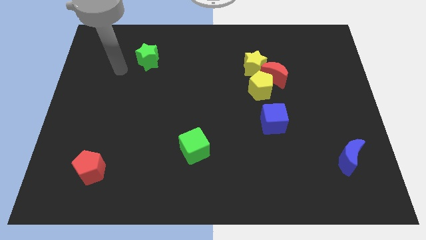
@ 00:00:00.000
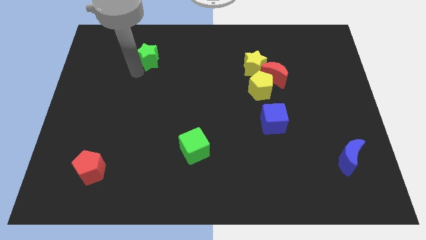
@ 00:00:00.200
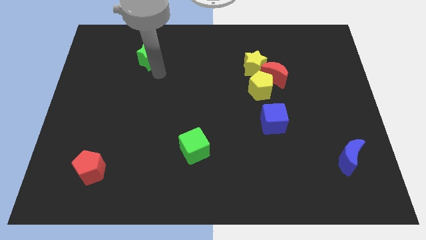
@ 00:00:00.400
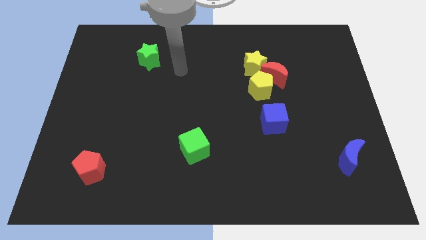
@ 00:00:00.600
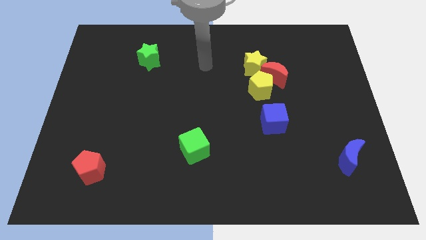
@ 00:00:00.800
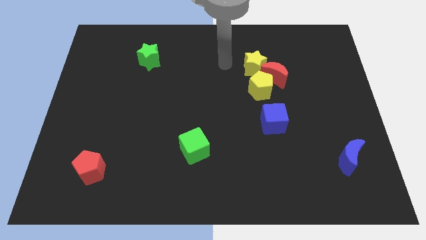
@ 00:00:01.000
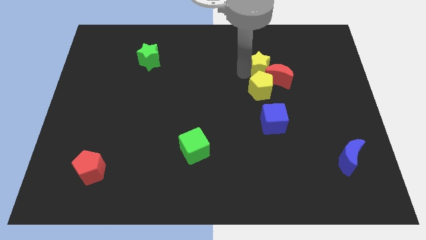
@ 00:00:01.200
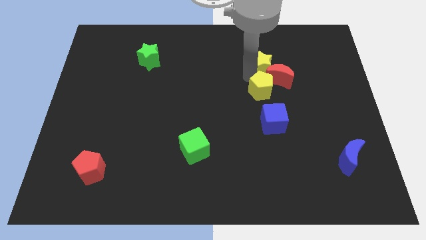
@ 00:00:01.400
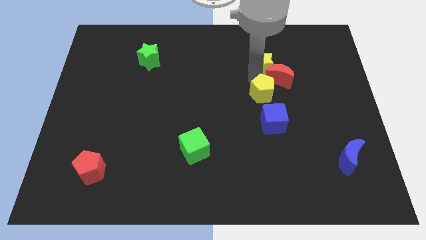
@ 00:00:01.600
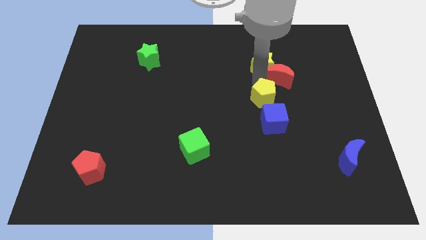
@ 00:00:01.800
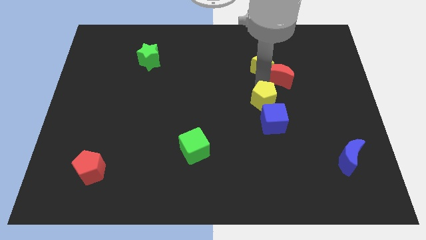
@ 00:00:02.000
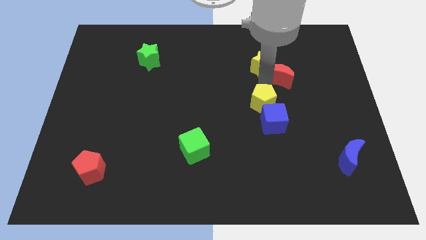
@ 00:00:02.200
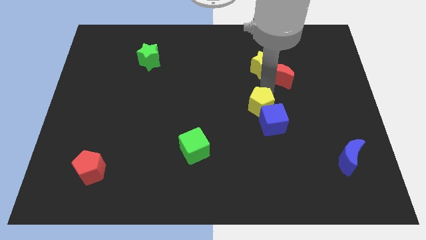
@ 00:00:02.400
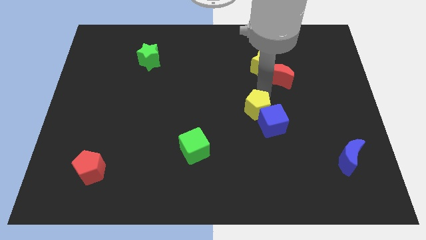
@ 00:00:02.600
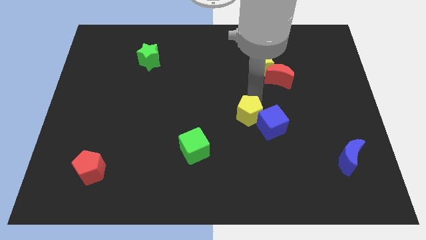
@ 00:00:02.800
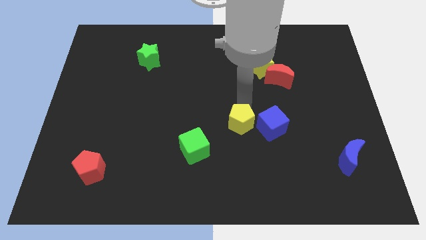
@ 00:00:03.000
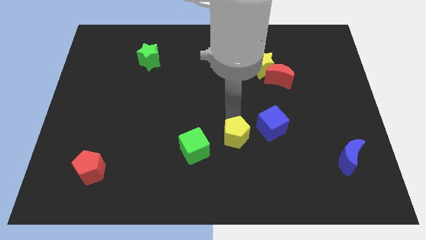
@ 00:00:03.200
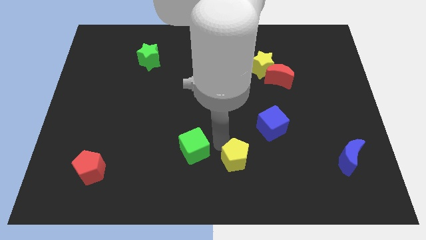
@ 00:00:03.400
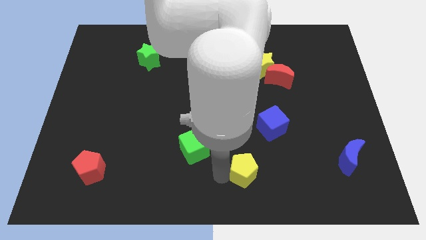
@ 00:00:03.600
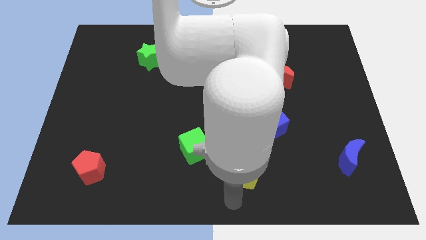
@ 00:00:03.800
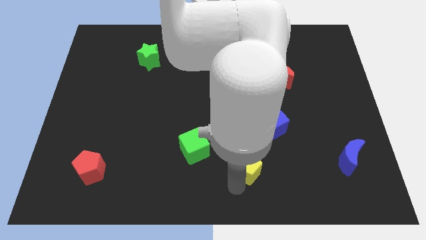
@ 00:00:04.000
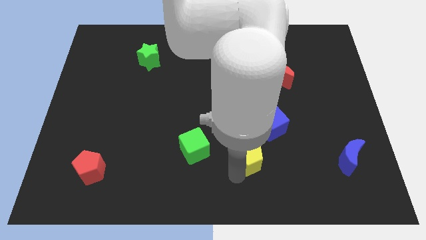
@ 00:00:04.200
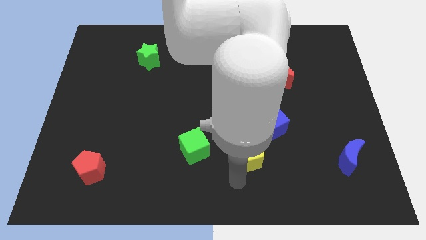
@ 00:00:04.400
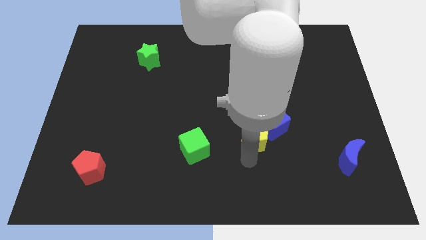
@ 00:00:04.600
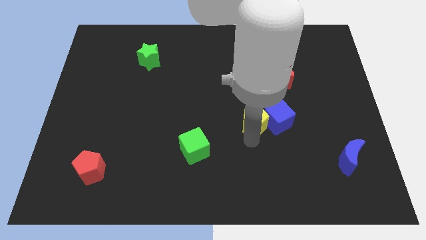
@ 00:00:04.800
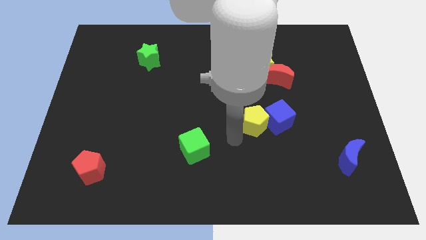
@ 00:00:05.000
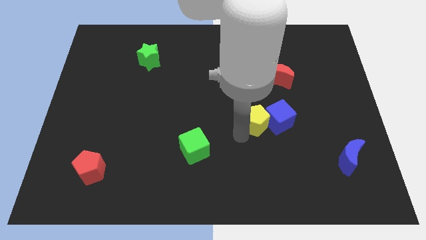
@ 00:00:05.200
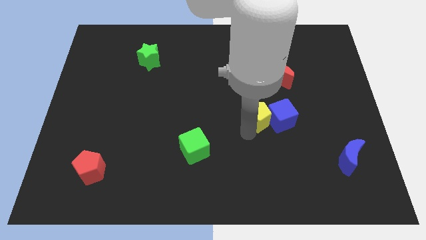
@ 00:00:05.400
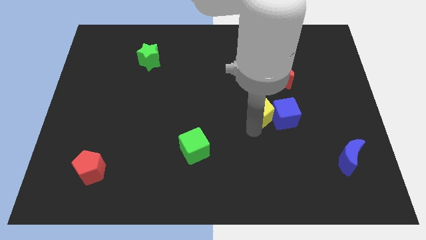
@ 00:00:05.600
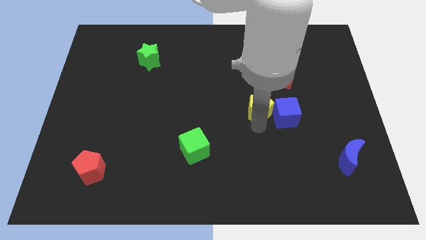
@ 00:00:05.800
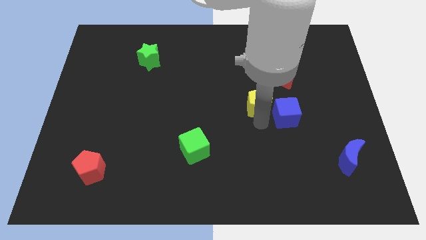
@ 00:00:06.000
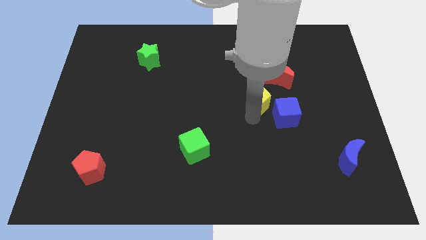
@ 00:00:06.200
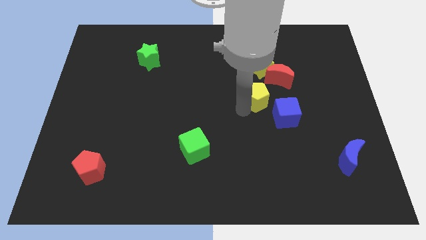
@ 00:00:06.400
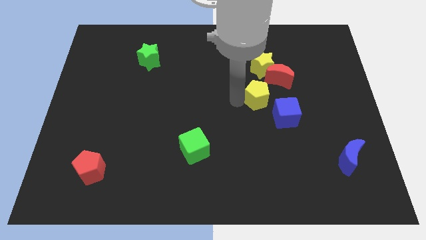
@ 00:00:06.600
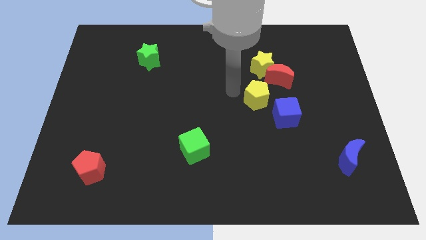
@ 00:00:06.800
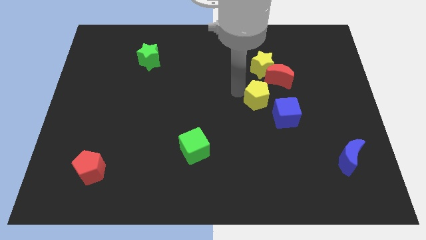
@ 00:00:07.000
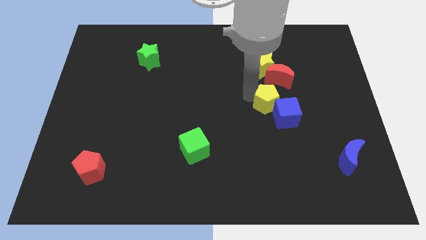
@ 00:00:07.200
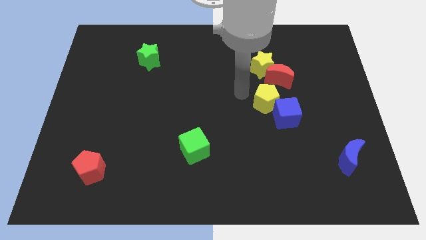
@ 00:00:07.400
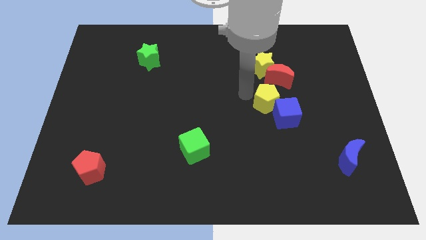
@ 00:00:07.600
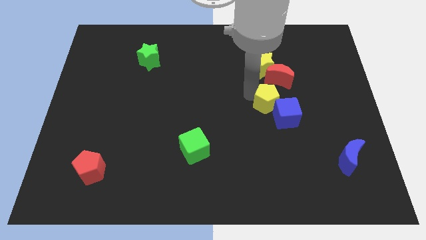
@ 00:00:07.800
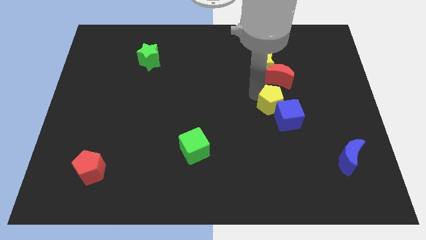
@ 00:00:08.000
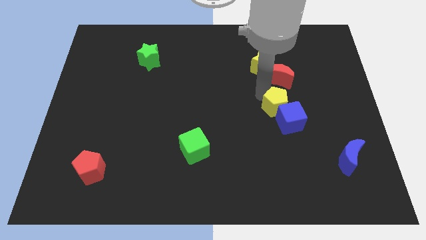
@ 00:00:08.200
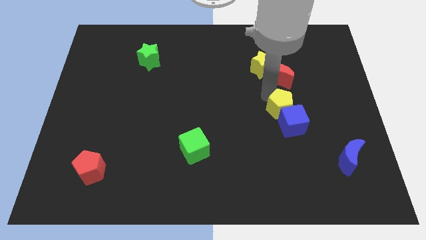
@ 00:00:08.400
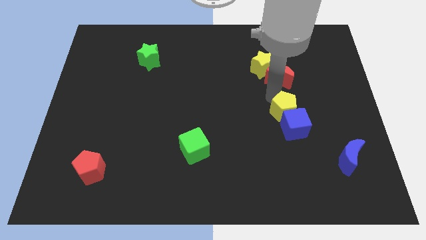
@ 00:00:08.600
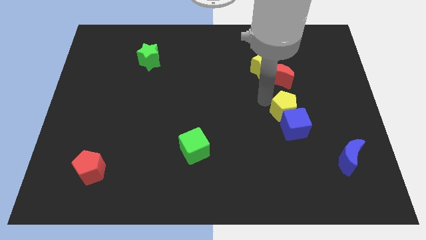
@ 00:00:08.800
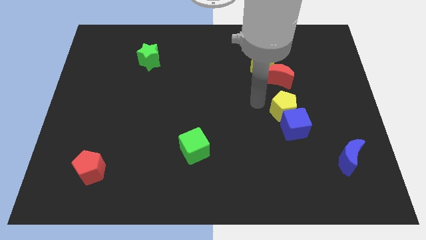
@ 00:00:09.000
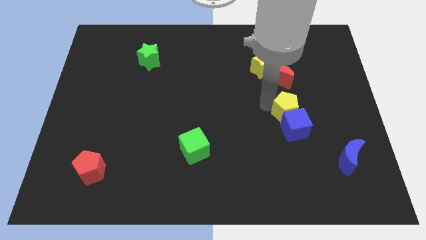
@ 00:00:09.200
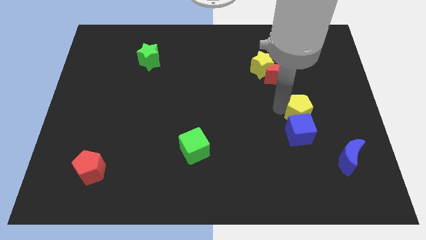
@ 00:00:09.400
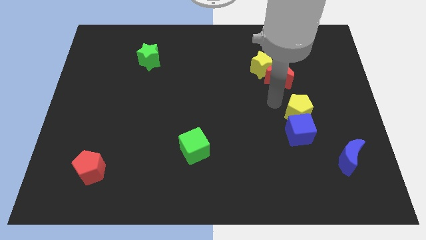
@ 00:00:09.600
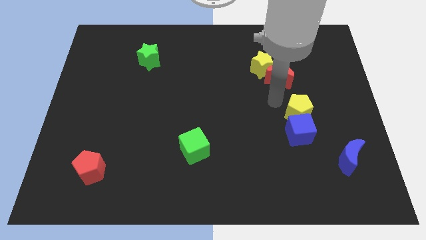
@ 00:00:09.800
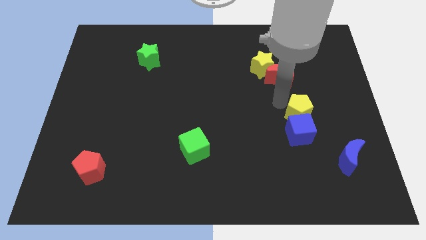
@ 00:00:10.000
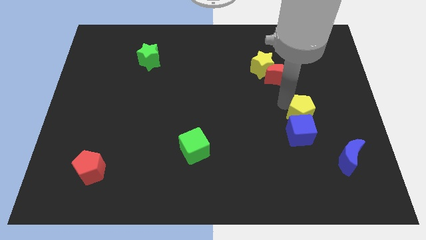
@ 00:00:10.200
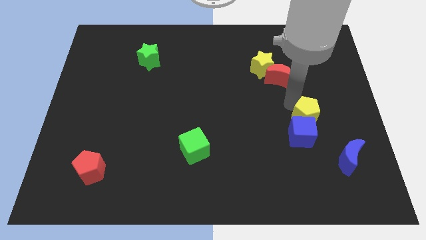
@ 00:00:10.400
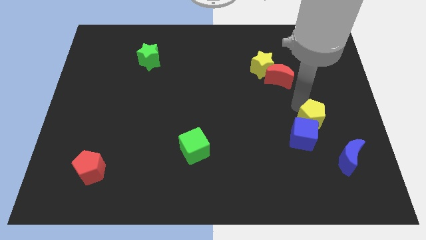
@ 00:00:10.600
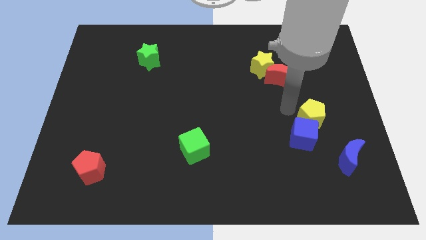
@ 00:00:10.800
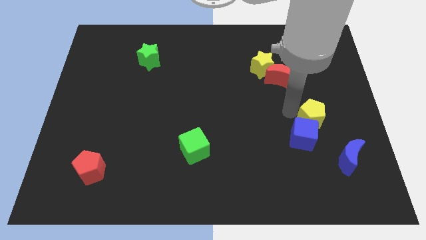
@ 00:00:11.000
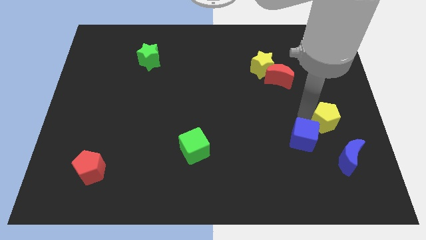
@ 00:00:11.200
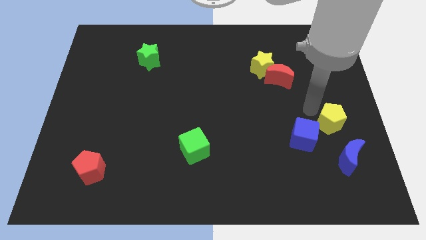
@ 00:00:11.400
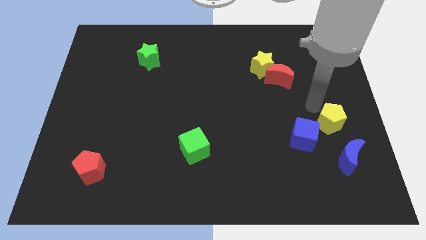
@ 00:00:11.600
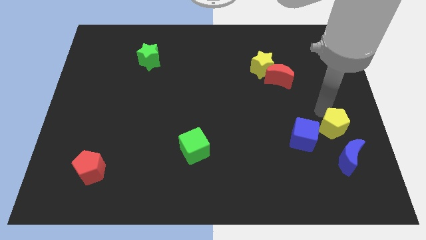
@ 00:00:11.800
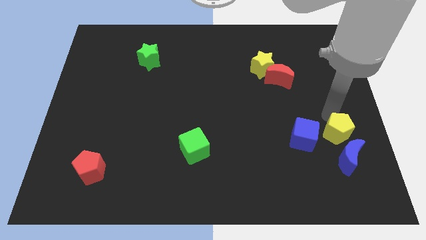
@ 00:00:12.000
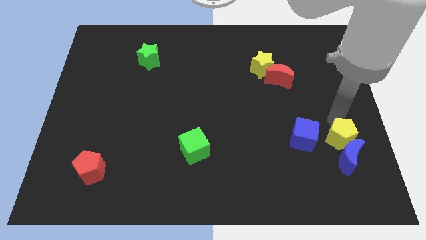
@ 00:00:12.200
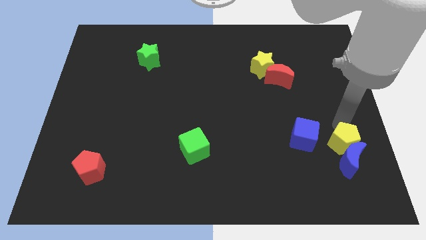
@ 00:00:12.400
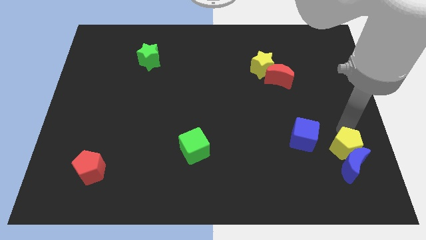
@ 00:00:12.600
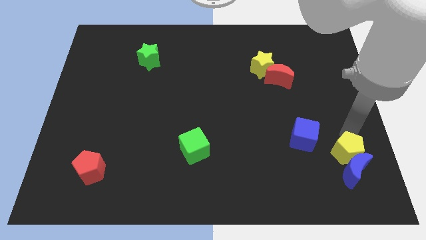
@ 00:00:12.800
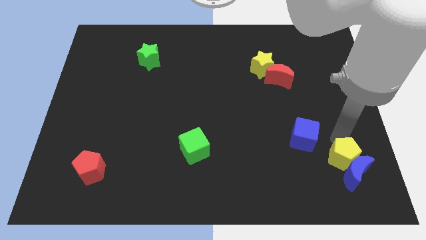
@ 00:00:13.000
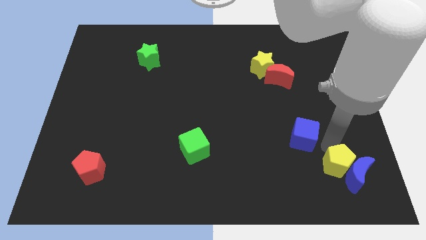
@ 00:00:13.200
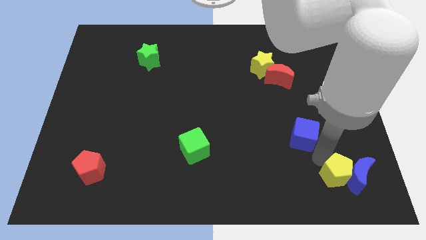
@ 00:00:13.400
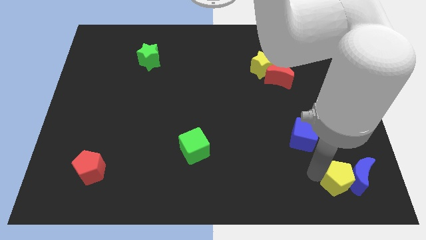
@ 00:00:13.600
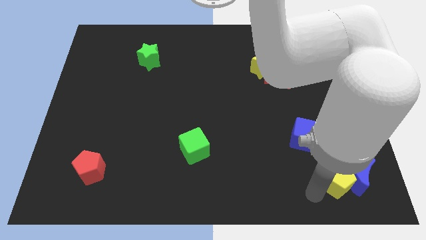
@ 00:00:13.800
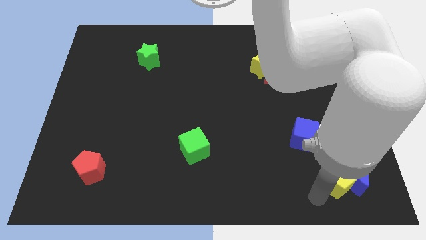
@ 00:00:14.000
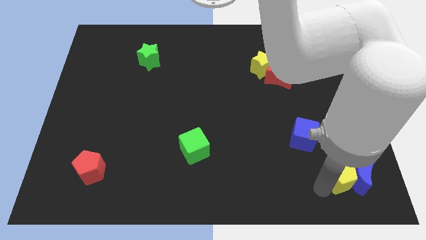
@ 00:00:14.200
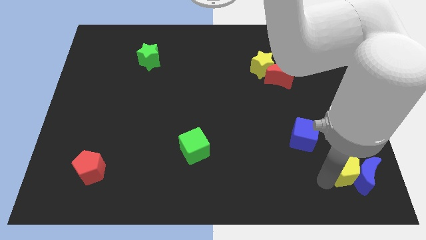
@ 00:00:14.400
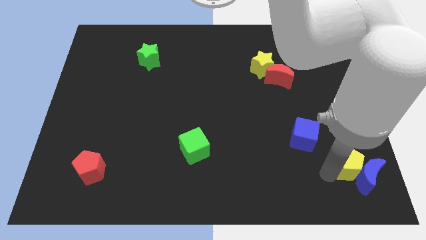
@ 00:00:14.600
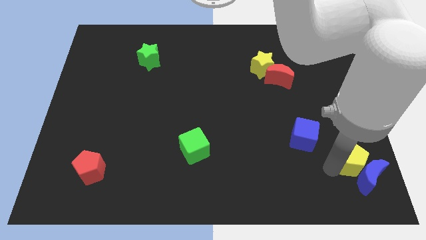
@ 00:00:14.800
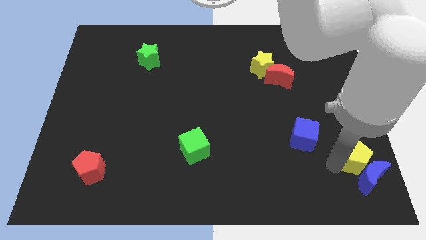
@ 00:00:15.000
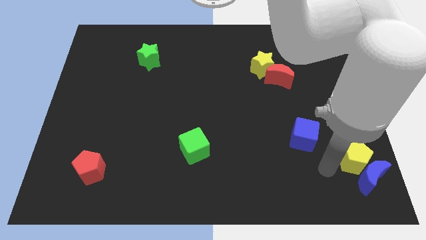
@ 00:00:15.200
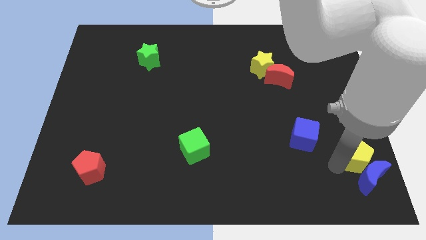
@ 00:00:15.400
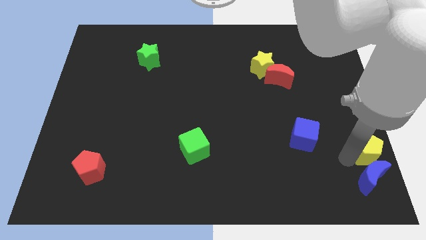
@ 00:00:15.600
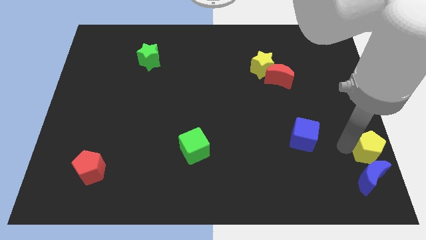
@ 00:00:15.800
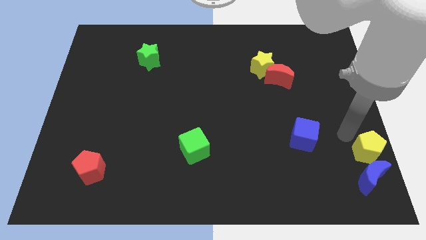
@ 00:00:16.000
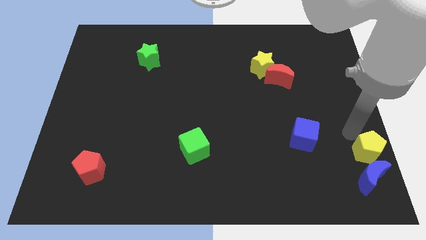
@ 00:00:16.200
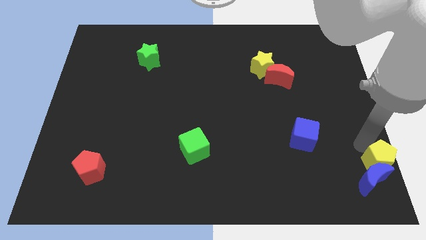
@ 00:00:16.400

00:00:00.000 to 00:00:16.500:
put the yellow pentagon to the lower right corner
